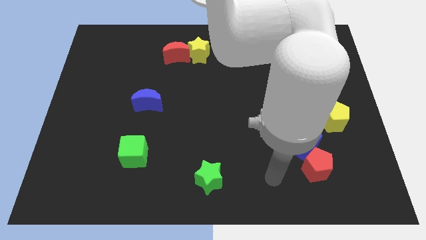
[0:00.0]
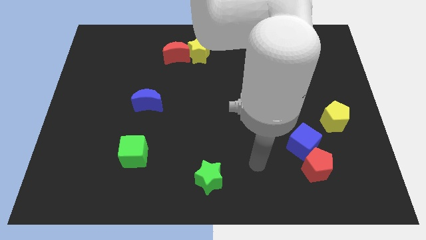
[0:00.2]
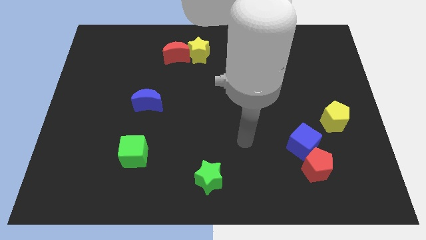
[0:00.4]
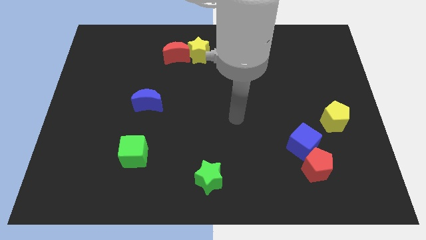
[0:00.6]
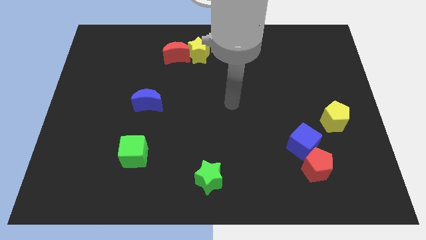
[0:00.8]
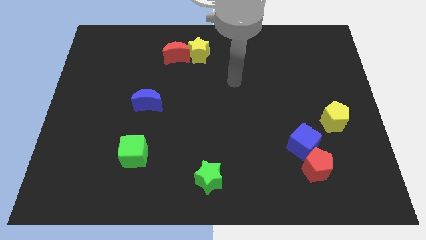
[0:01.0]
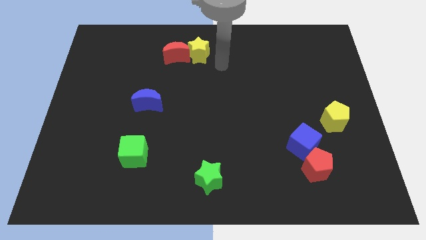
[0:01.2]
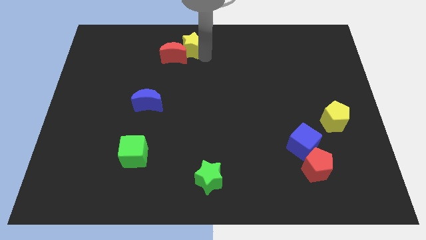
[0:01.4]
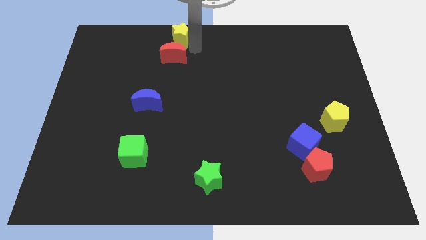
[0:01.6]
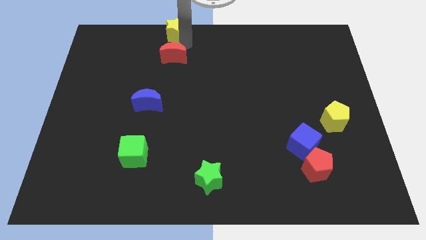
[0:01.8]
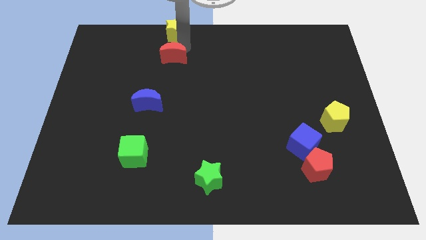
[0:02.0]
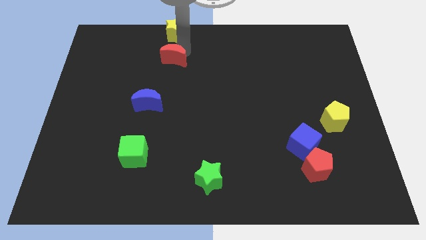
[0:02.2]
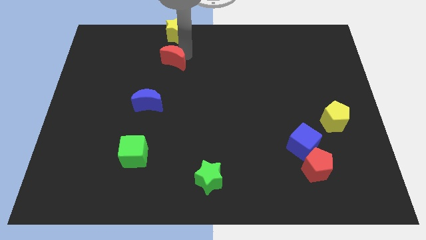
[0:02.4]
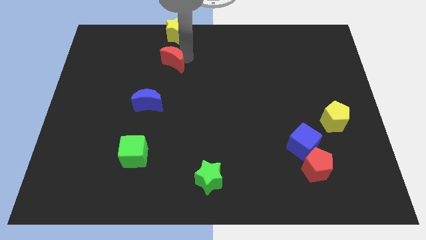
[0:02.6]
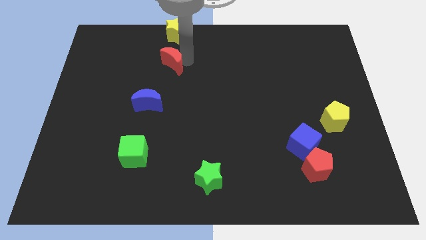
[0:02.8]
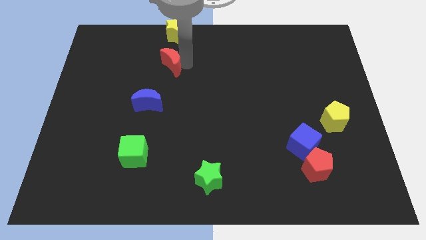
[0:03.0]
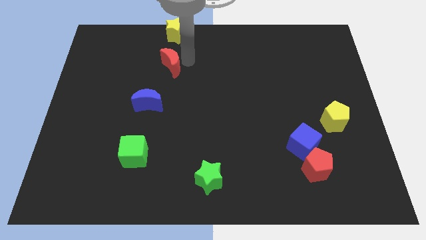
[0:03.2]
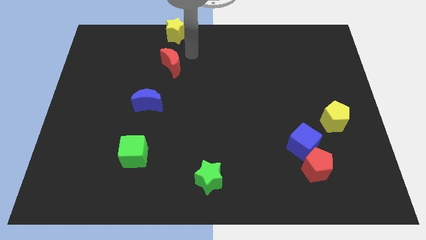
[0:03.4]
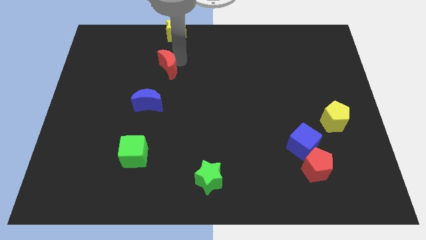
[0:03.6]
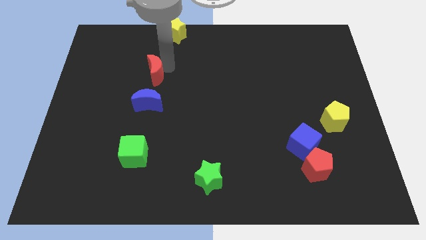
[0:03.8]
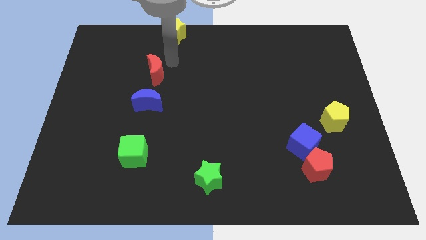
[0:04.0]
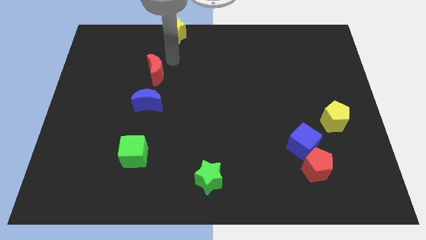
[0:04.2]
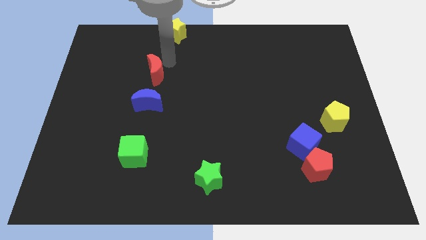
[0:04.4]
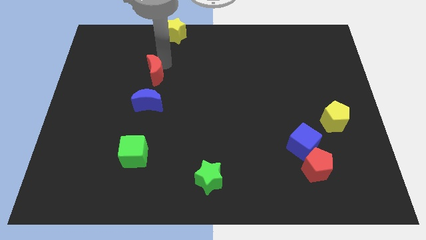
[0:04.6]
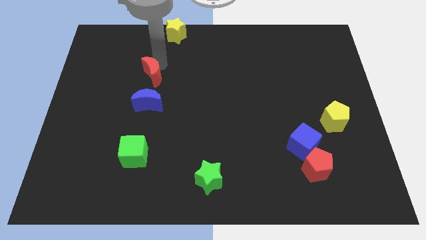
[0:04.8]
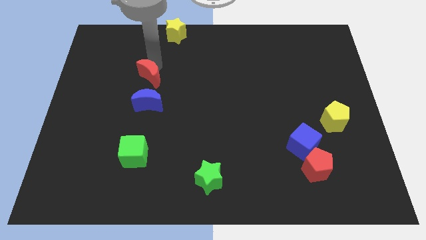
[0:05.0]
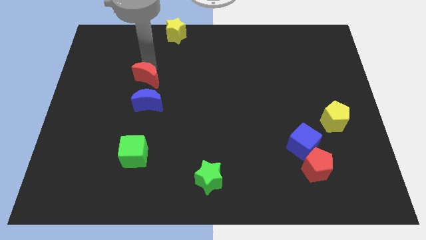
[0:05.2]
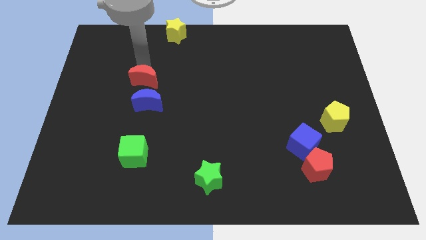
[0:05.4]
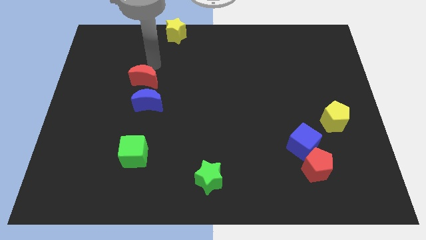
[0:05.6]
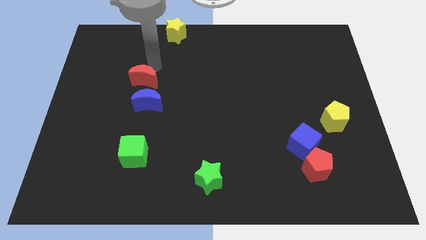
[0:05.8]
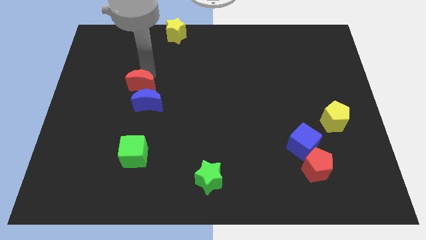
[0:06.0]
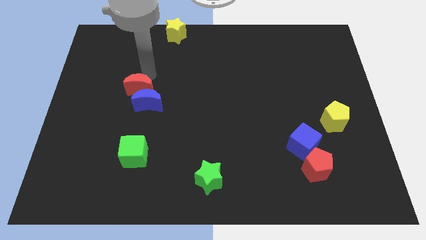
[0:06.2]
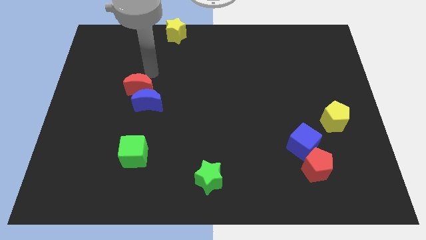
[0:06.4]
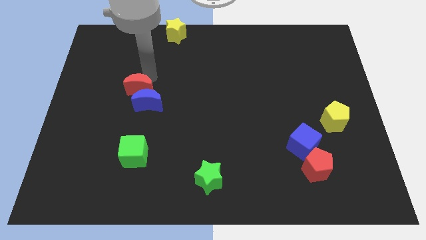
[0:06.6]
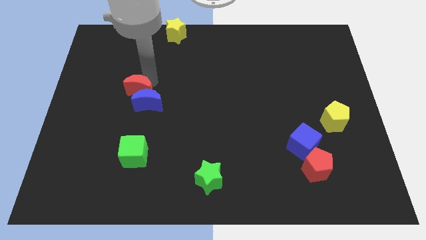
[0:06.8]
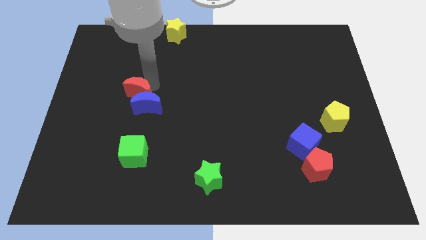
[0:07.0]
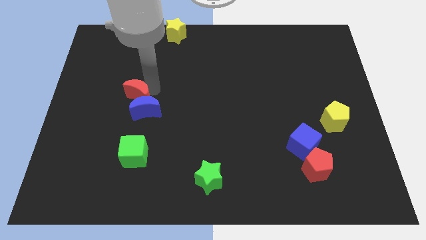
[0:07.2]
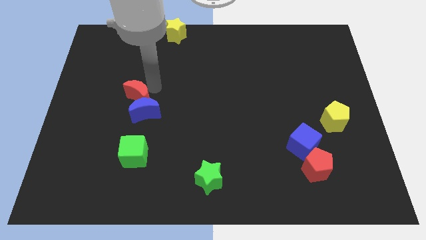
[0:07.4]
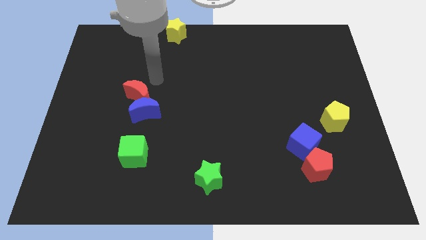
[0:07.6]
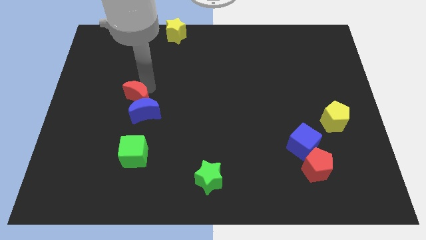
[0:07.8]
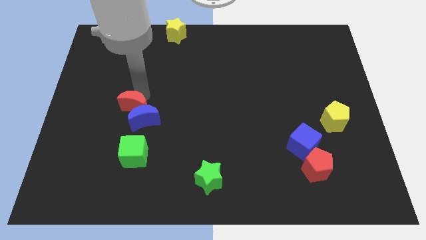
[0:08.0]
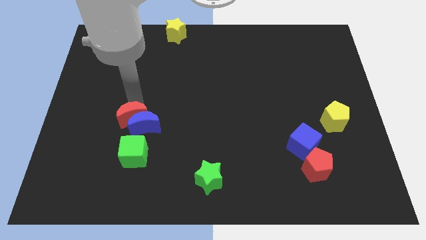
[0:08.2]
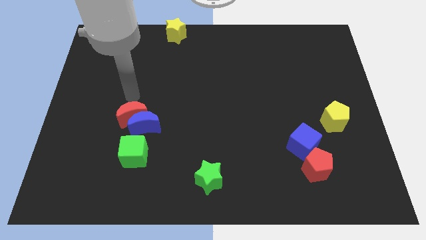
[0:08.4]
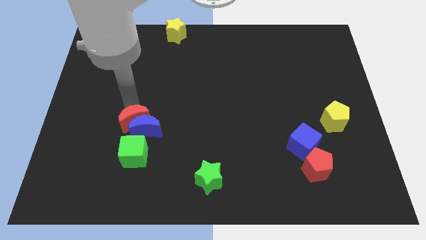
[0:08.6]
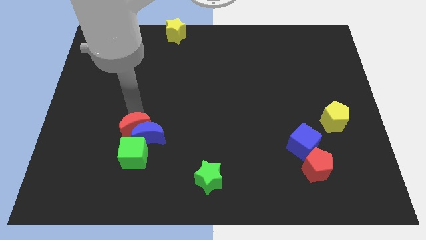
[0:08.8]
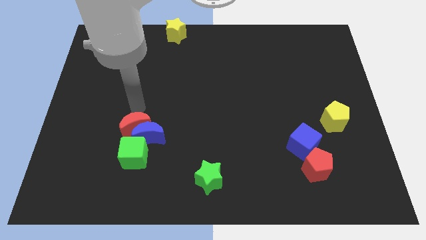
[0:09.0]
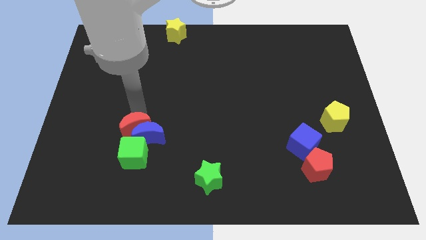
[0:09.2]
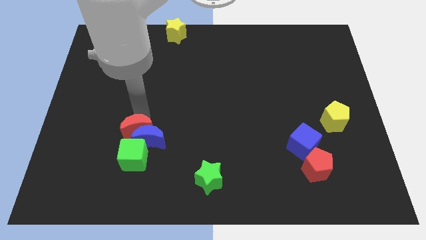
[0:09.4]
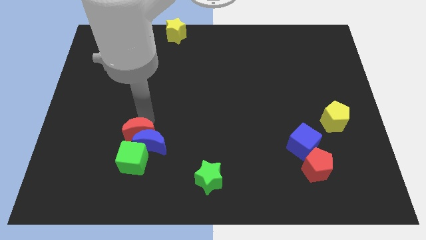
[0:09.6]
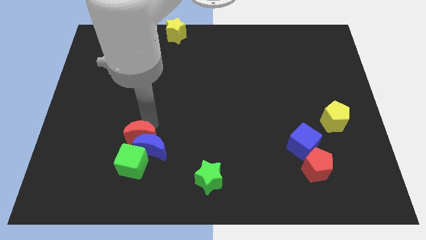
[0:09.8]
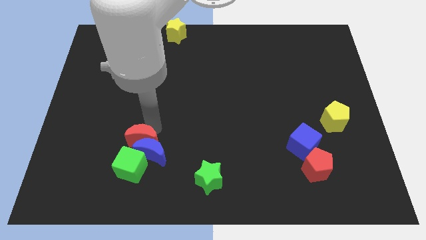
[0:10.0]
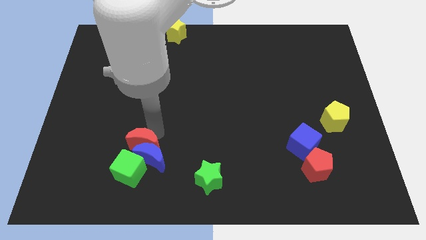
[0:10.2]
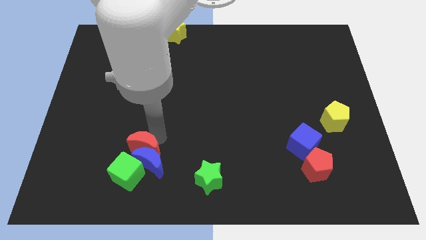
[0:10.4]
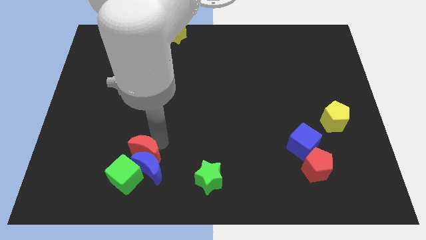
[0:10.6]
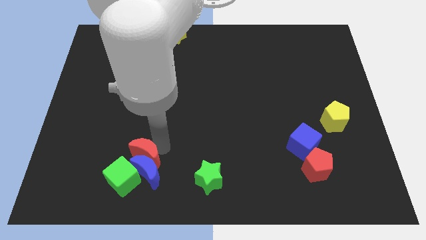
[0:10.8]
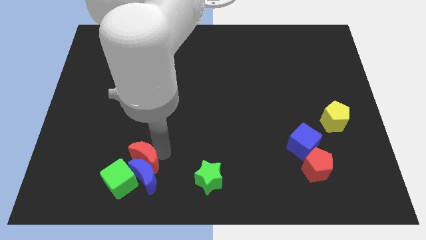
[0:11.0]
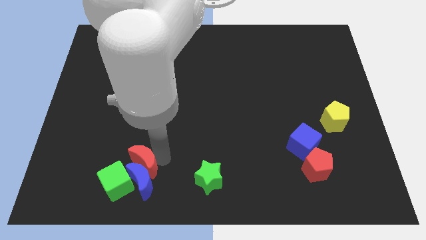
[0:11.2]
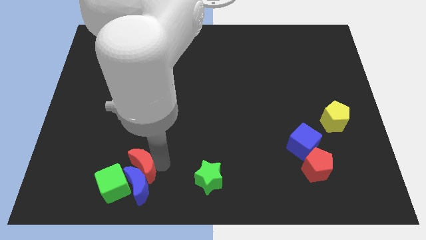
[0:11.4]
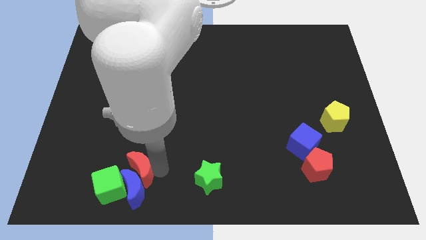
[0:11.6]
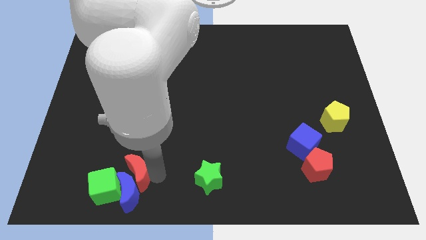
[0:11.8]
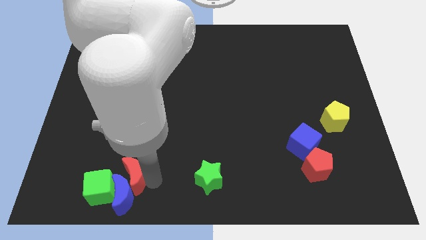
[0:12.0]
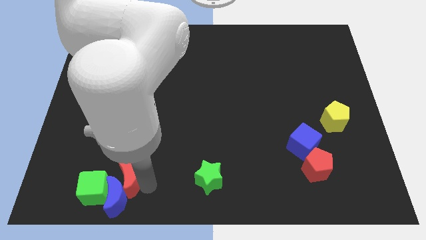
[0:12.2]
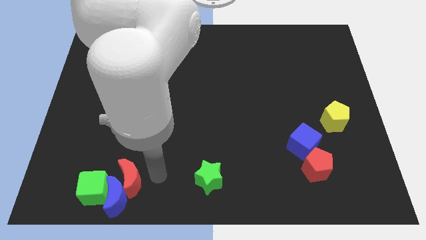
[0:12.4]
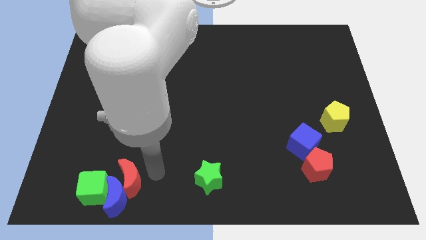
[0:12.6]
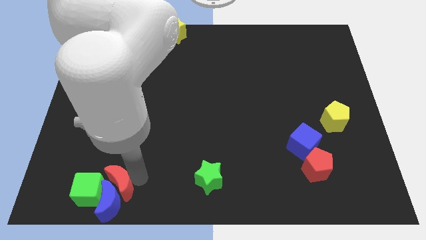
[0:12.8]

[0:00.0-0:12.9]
slide the red moon to the green cube

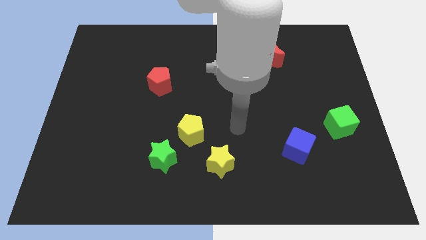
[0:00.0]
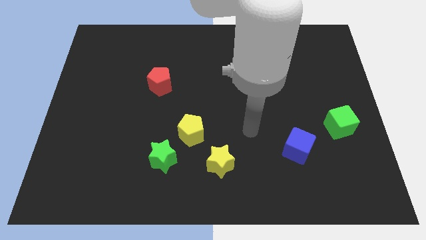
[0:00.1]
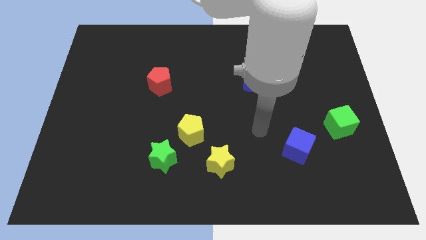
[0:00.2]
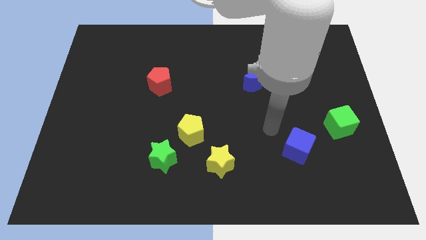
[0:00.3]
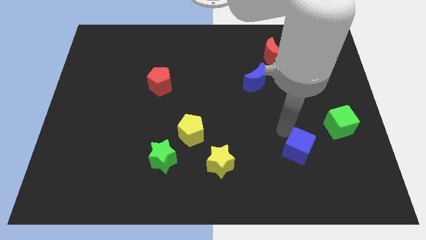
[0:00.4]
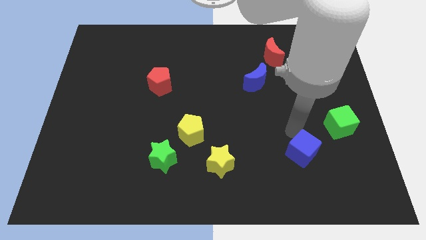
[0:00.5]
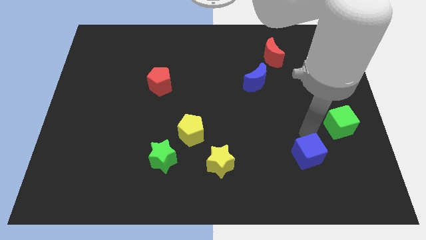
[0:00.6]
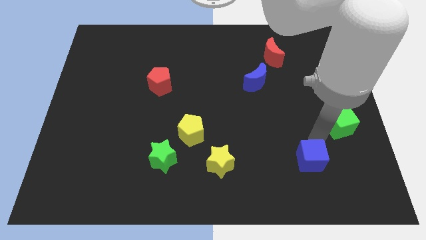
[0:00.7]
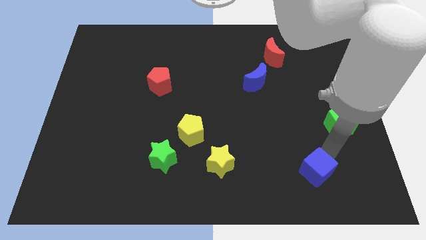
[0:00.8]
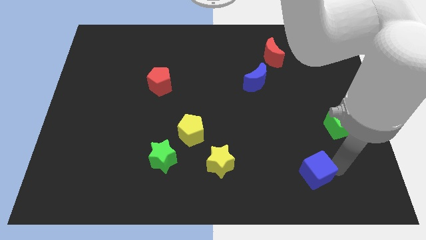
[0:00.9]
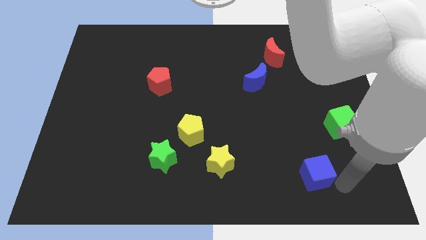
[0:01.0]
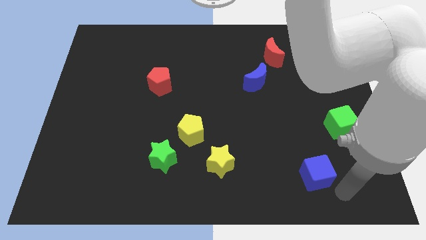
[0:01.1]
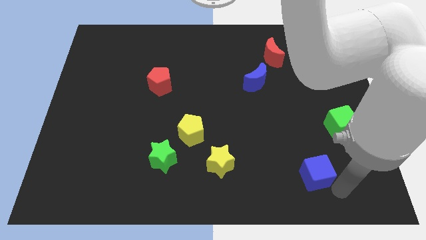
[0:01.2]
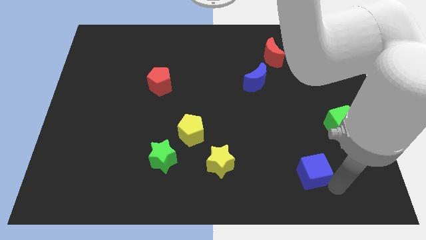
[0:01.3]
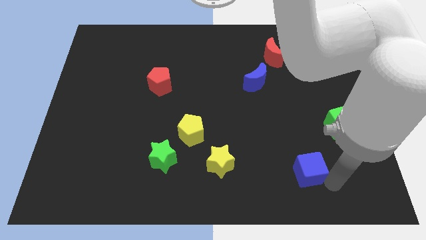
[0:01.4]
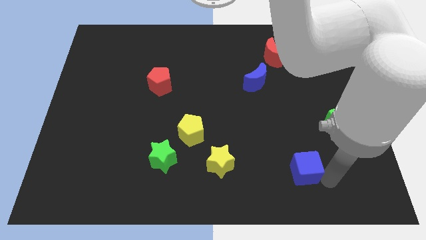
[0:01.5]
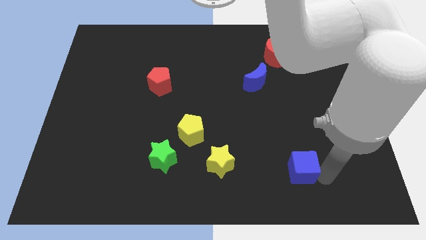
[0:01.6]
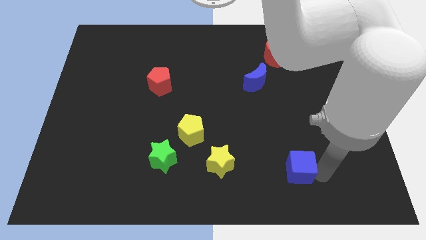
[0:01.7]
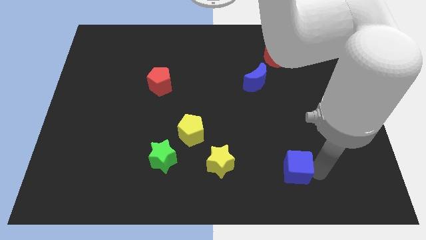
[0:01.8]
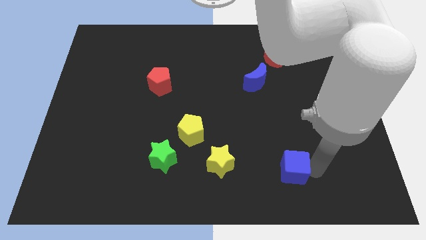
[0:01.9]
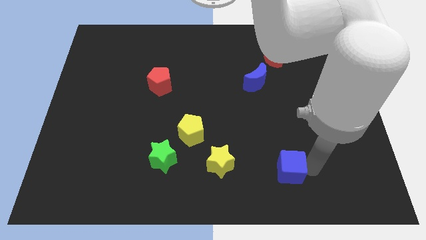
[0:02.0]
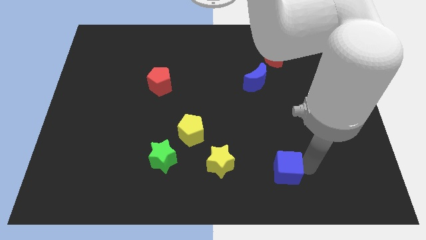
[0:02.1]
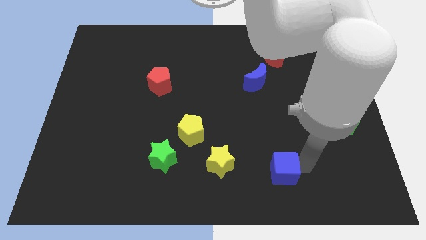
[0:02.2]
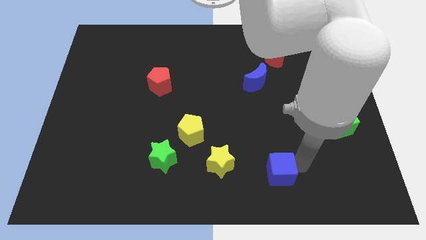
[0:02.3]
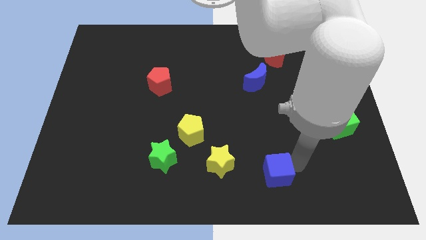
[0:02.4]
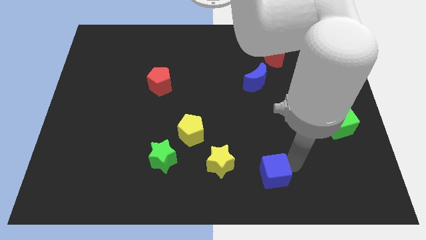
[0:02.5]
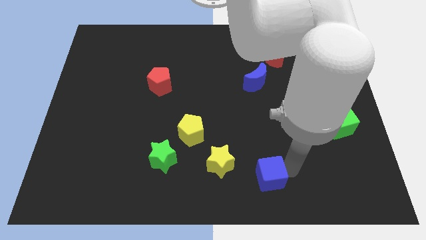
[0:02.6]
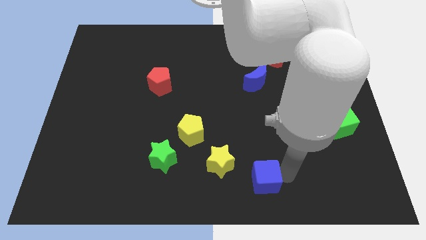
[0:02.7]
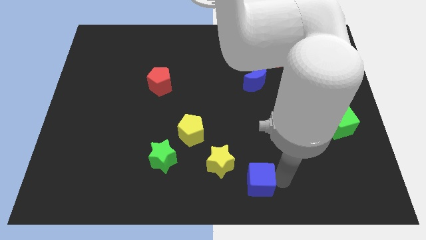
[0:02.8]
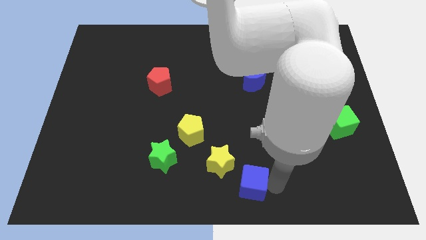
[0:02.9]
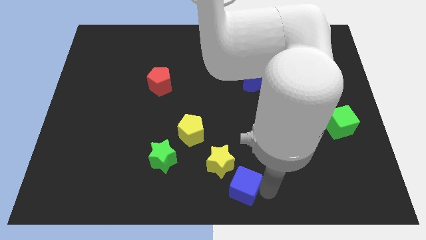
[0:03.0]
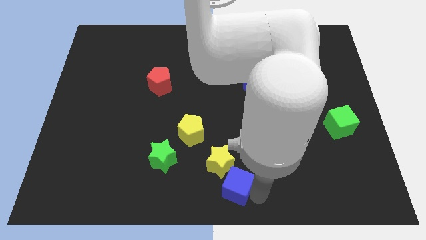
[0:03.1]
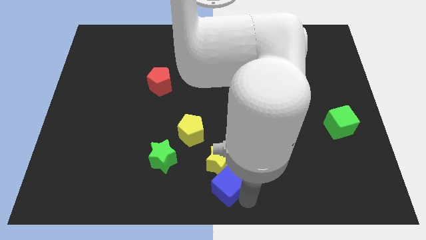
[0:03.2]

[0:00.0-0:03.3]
slide the blue cube next to the yellow star
